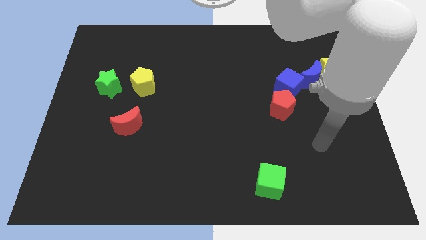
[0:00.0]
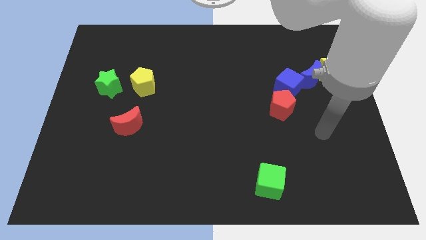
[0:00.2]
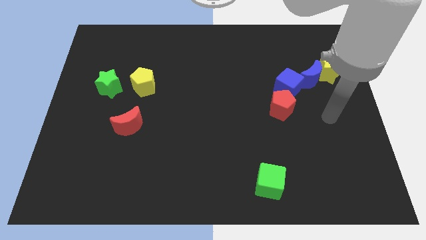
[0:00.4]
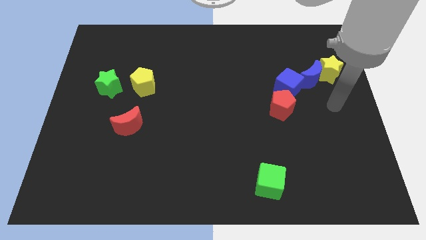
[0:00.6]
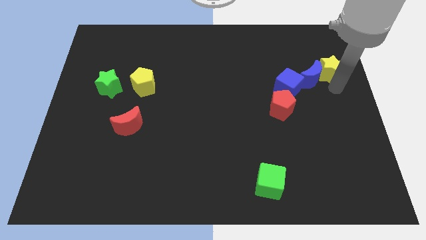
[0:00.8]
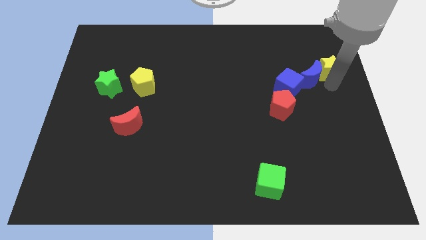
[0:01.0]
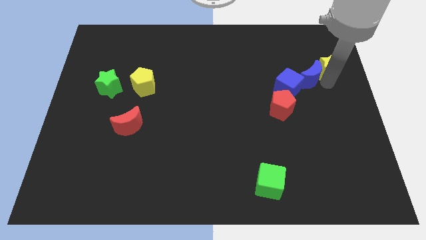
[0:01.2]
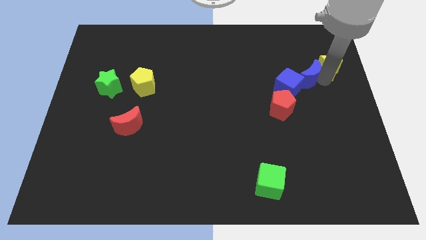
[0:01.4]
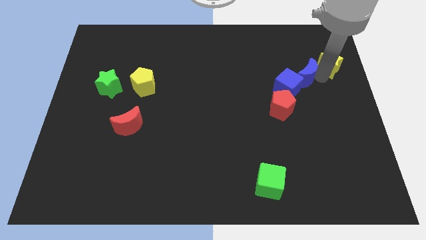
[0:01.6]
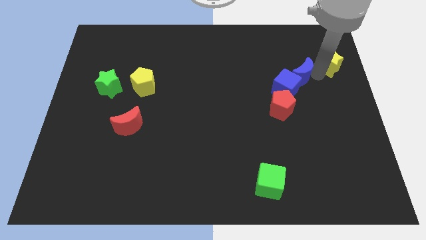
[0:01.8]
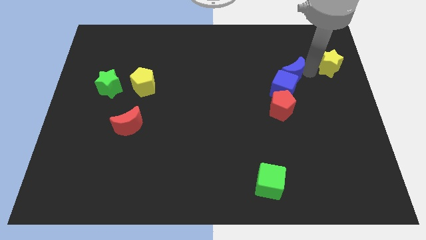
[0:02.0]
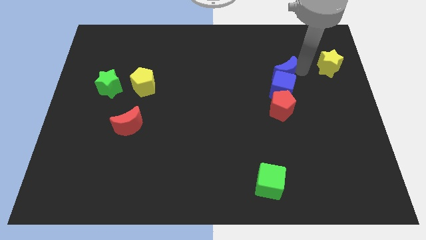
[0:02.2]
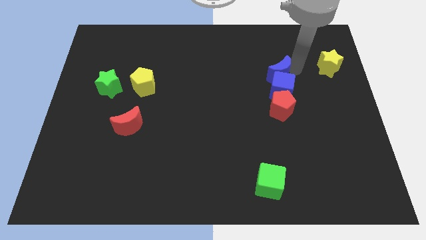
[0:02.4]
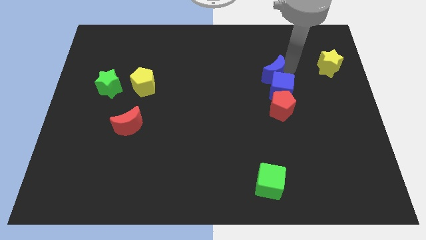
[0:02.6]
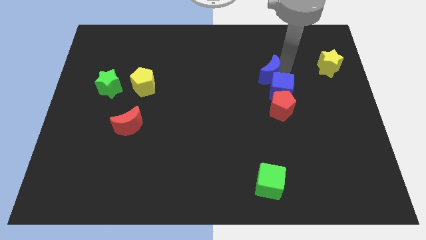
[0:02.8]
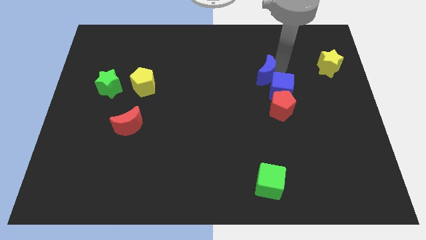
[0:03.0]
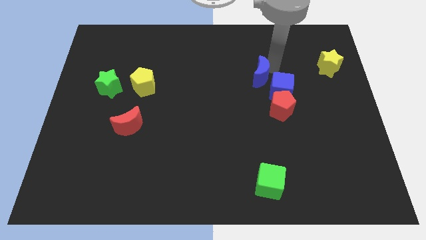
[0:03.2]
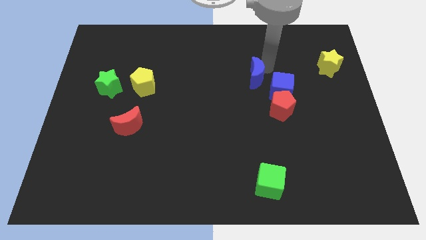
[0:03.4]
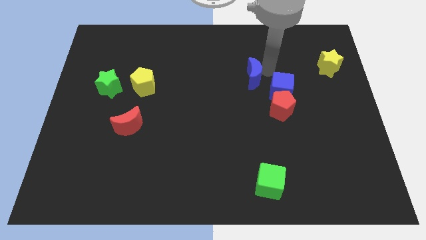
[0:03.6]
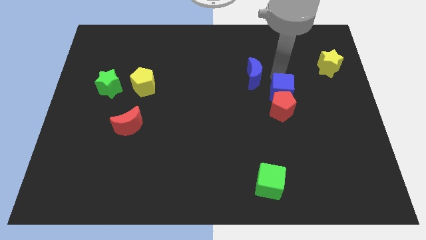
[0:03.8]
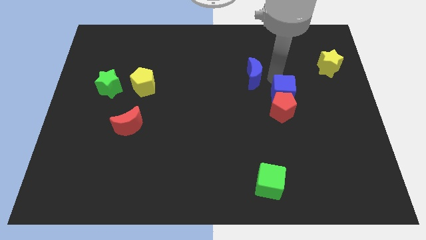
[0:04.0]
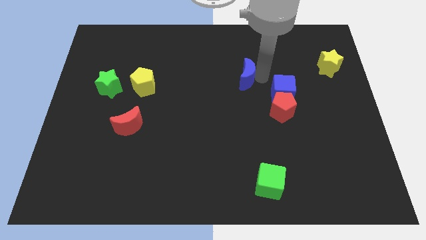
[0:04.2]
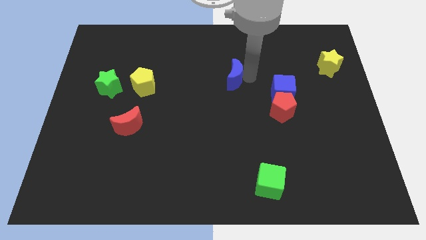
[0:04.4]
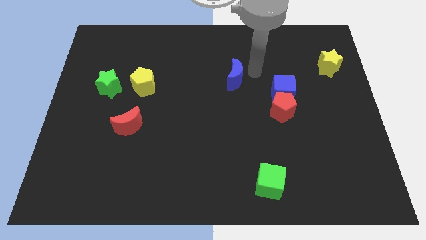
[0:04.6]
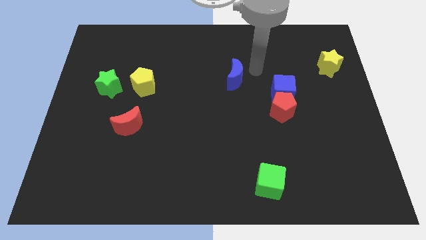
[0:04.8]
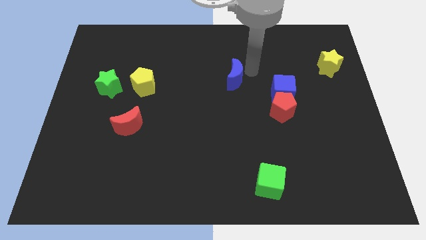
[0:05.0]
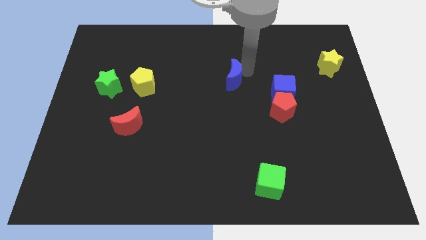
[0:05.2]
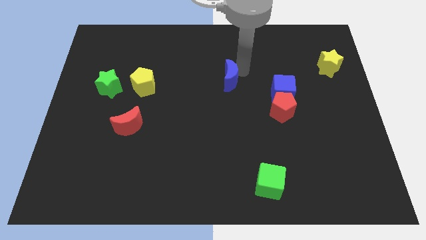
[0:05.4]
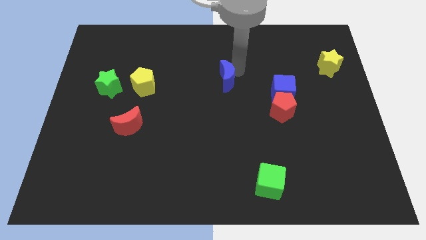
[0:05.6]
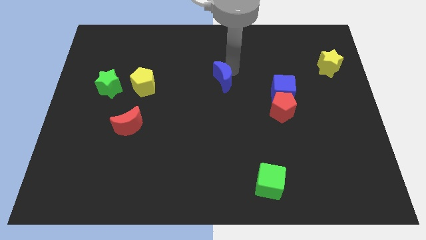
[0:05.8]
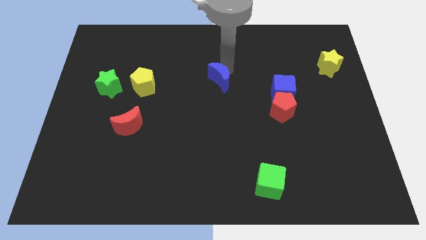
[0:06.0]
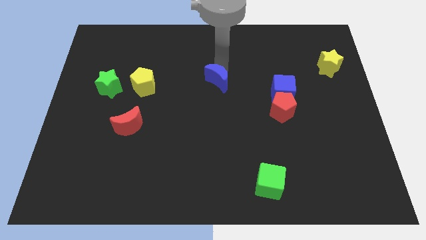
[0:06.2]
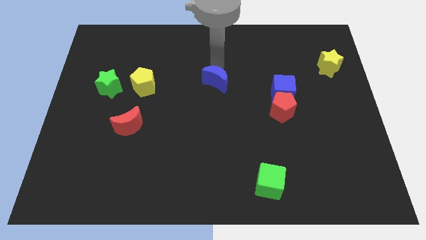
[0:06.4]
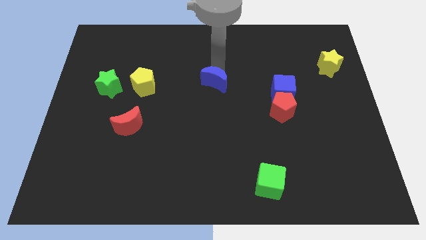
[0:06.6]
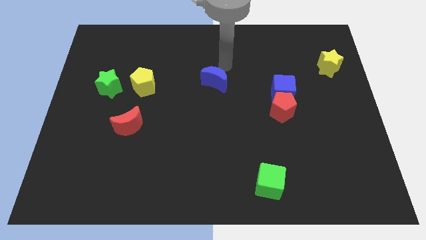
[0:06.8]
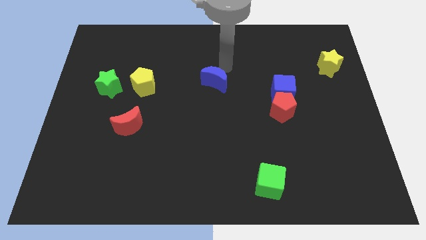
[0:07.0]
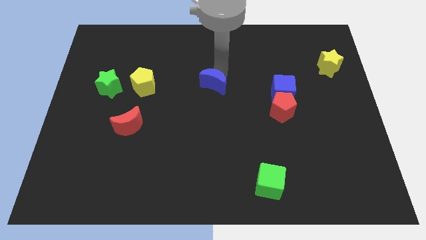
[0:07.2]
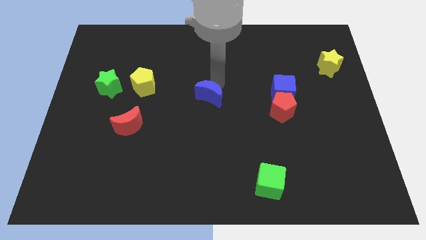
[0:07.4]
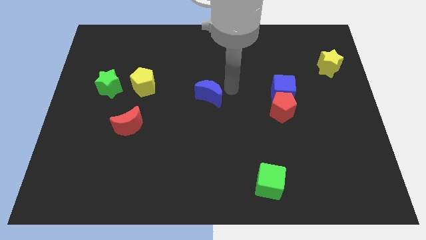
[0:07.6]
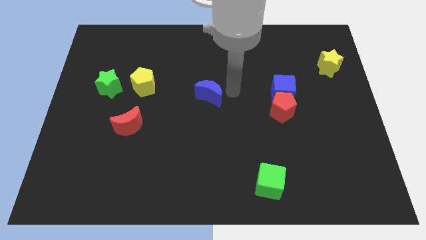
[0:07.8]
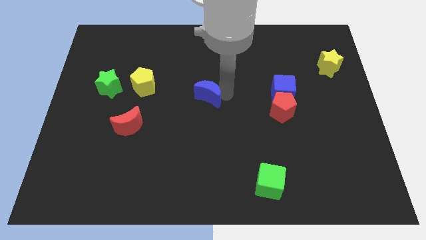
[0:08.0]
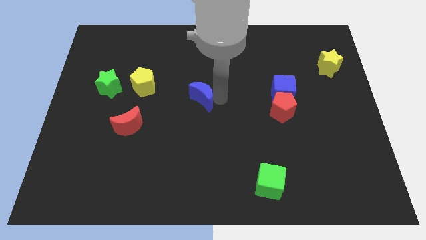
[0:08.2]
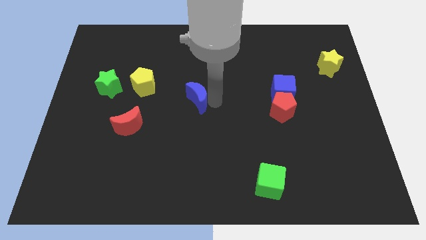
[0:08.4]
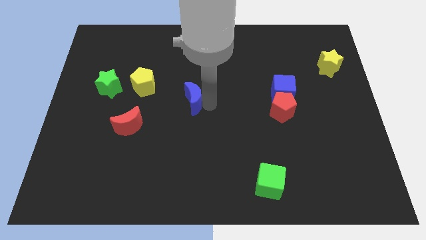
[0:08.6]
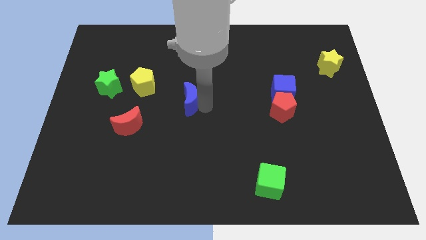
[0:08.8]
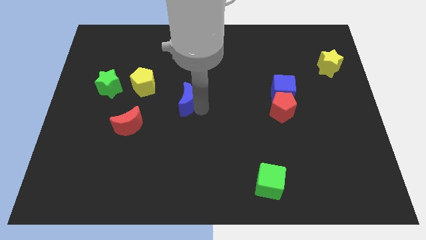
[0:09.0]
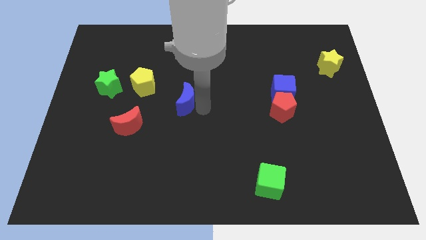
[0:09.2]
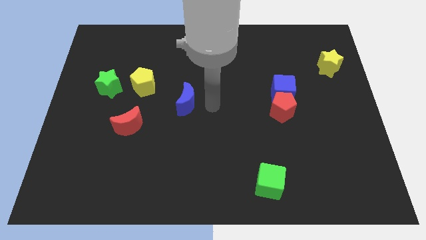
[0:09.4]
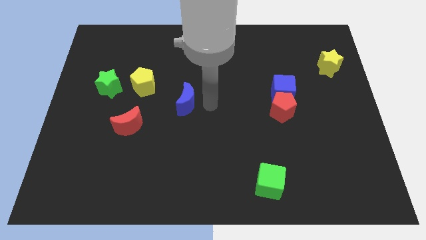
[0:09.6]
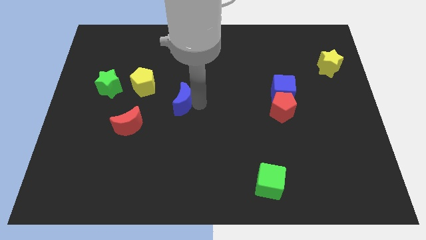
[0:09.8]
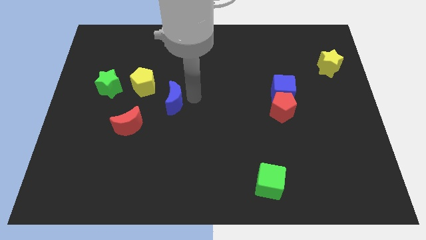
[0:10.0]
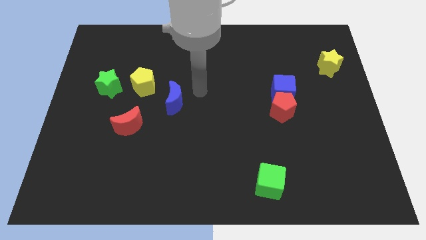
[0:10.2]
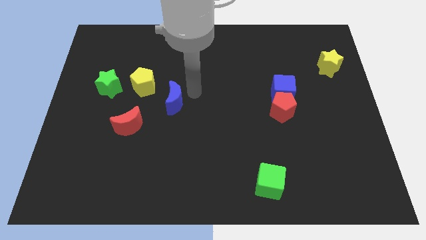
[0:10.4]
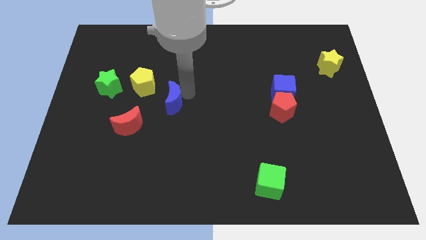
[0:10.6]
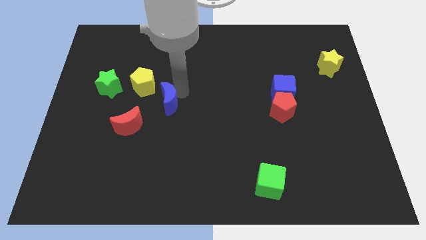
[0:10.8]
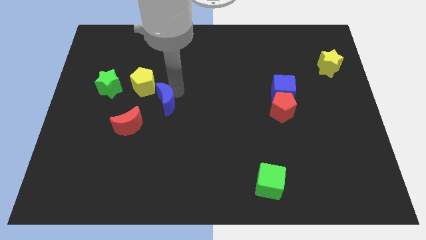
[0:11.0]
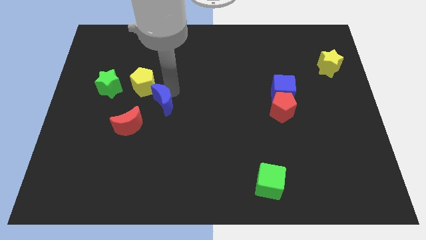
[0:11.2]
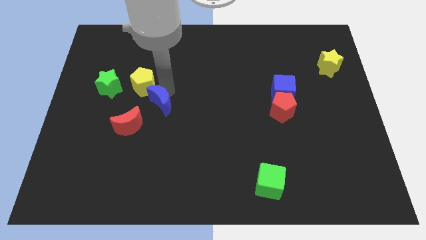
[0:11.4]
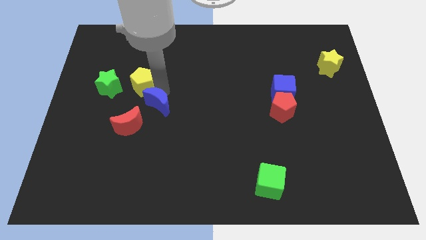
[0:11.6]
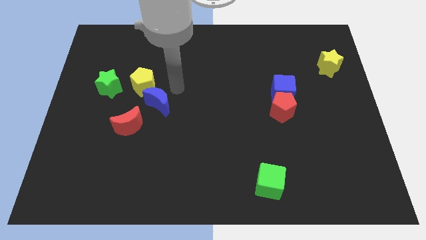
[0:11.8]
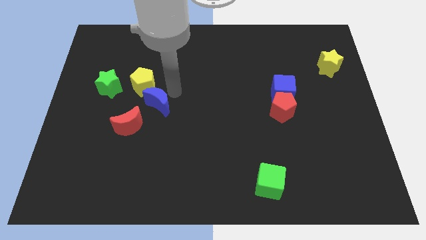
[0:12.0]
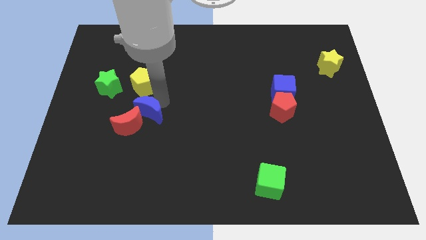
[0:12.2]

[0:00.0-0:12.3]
put the blue moon to the red moon

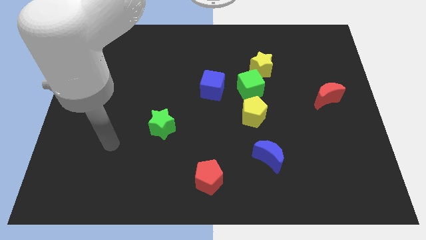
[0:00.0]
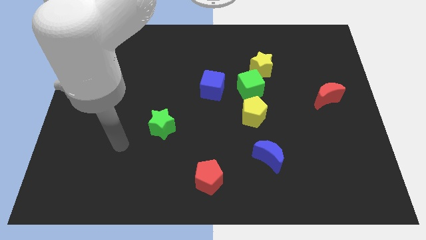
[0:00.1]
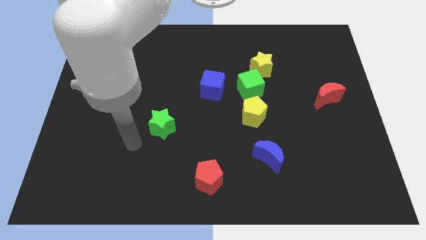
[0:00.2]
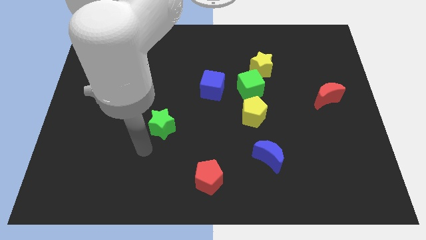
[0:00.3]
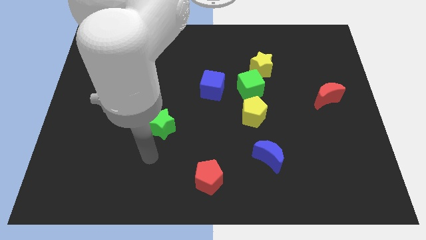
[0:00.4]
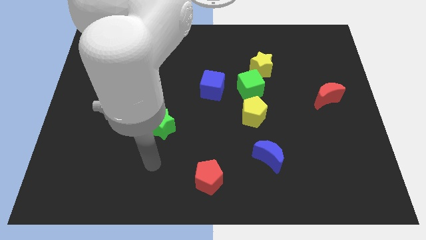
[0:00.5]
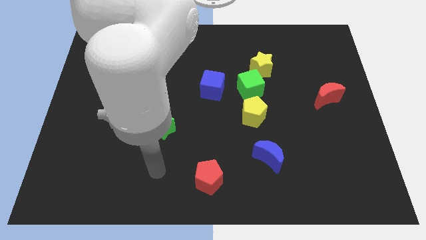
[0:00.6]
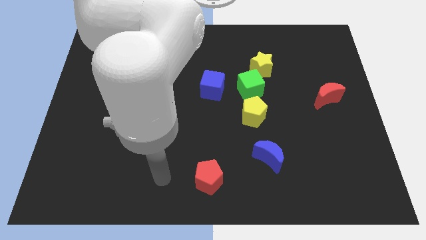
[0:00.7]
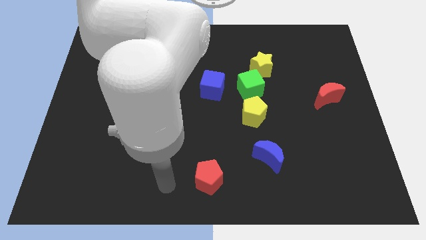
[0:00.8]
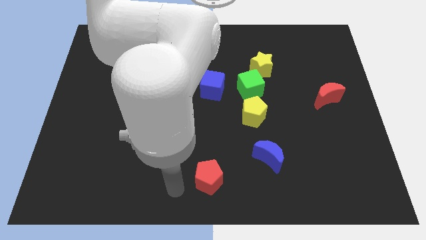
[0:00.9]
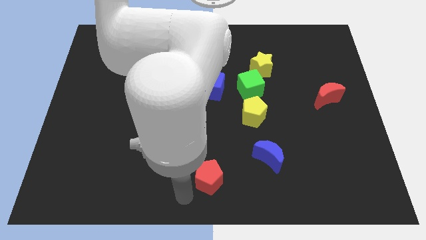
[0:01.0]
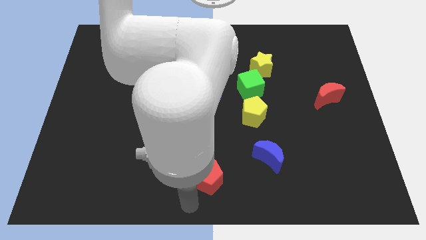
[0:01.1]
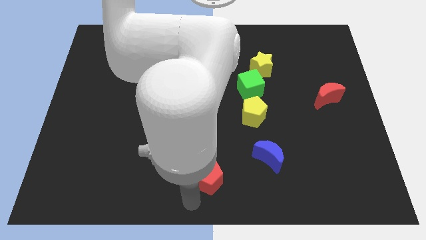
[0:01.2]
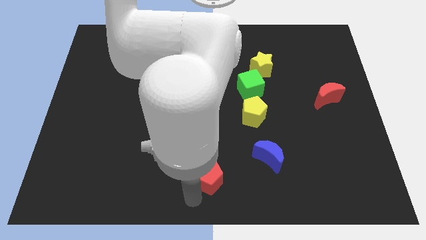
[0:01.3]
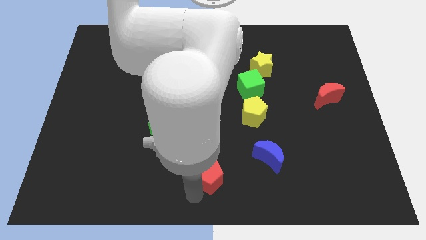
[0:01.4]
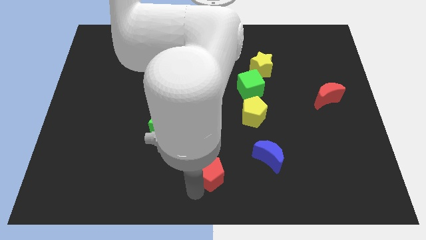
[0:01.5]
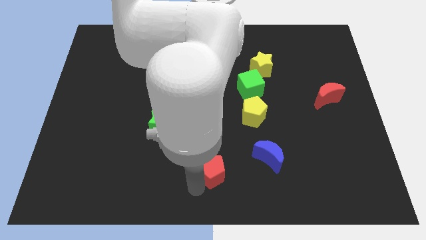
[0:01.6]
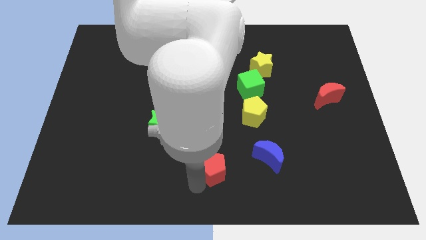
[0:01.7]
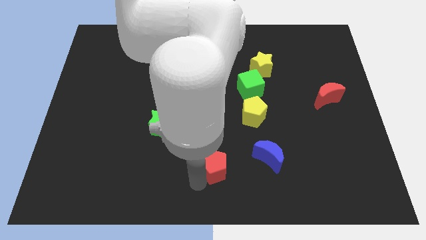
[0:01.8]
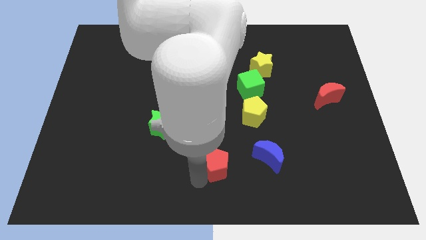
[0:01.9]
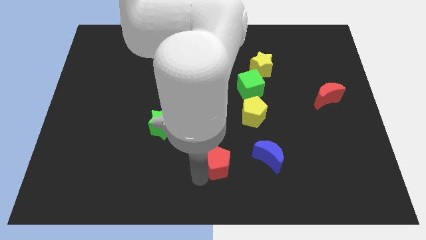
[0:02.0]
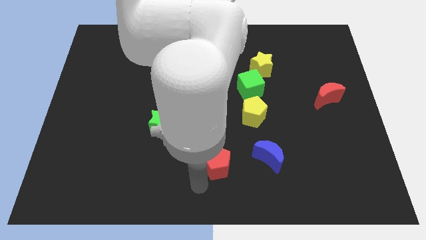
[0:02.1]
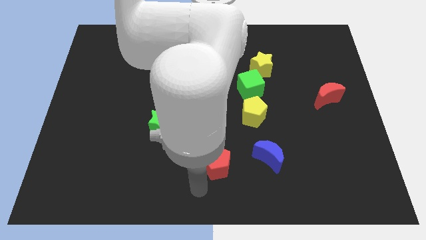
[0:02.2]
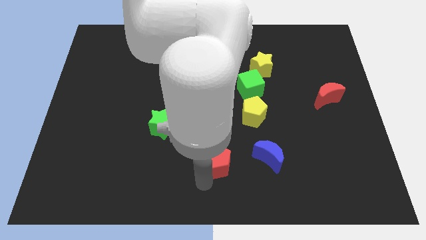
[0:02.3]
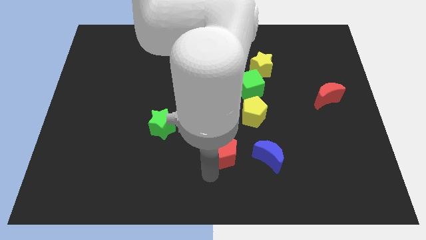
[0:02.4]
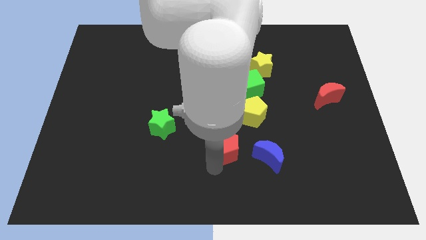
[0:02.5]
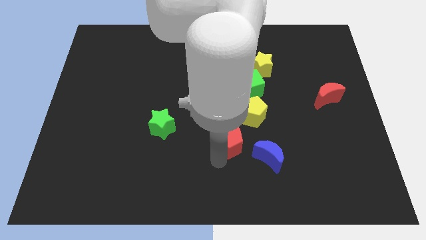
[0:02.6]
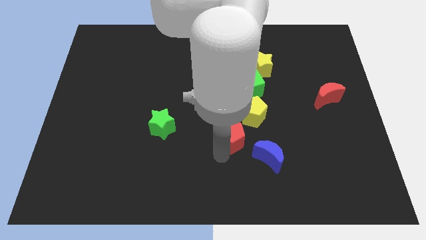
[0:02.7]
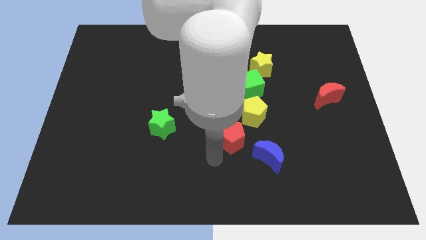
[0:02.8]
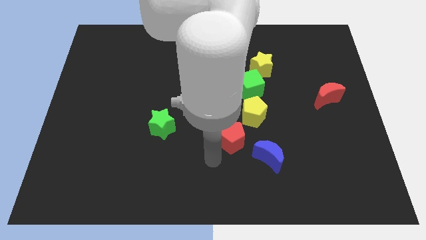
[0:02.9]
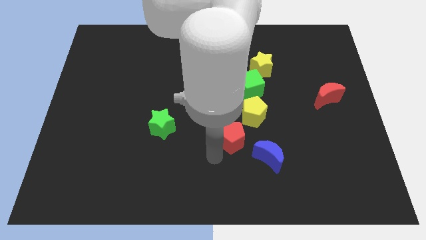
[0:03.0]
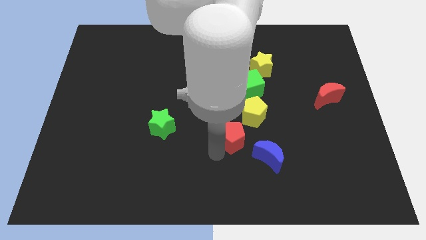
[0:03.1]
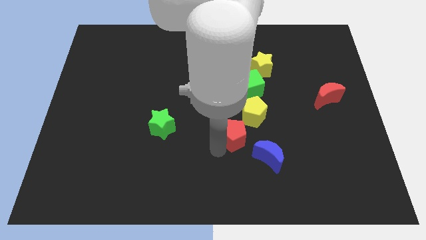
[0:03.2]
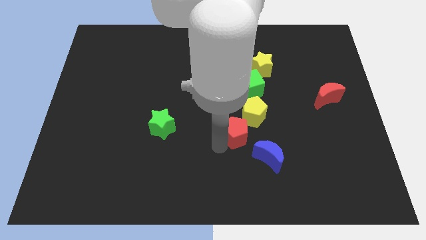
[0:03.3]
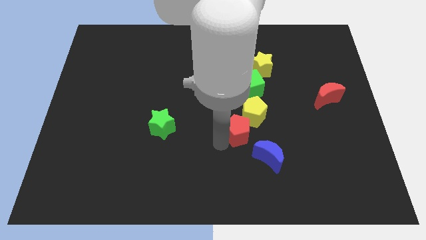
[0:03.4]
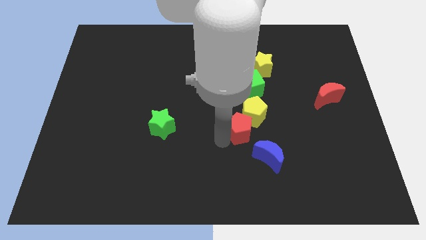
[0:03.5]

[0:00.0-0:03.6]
slide the red pentagon towards the yellow pentagon
